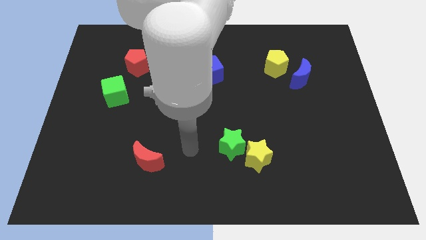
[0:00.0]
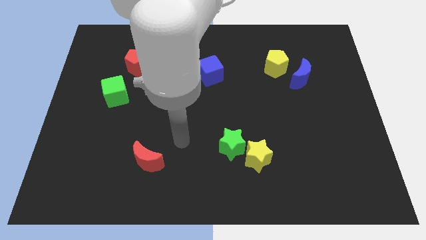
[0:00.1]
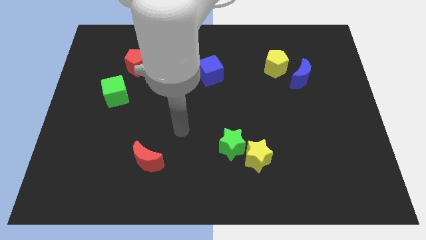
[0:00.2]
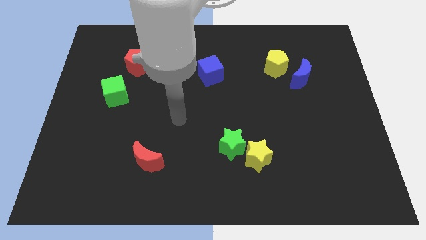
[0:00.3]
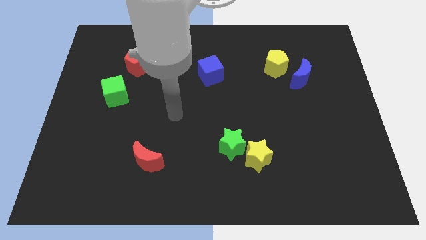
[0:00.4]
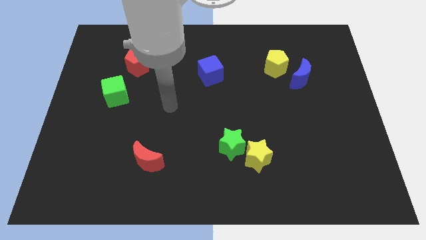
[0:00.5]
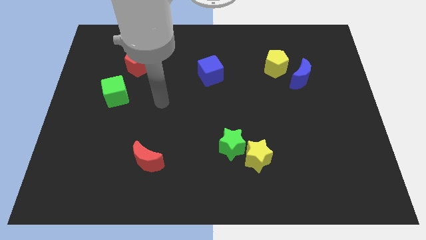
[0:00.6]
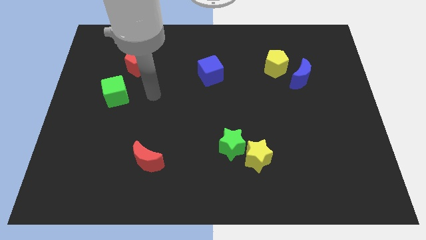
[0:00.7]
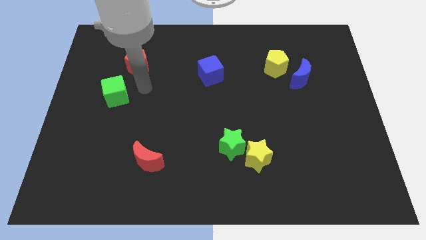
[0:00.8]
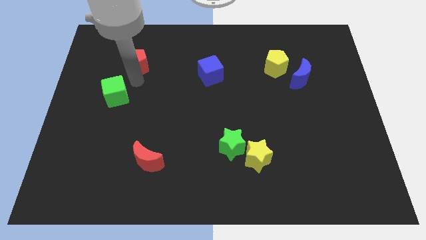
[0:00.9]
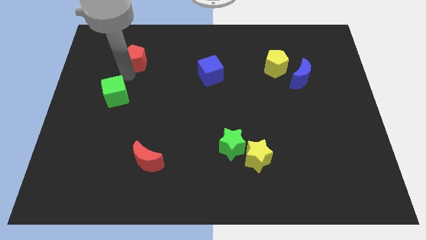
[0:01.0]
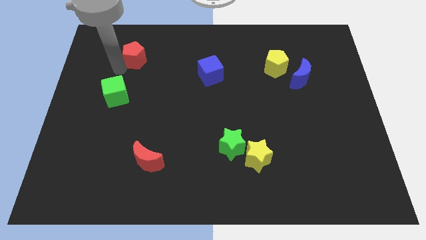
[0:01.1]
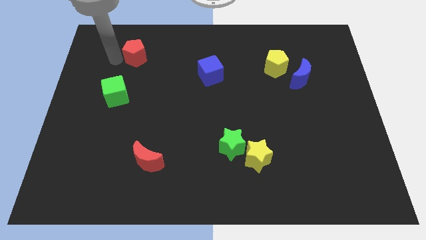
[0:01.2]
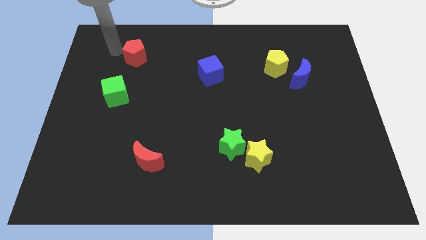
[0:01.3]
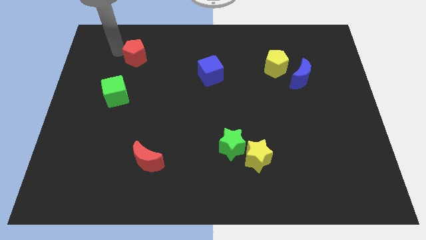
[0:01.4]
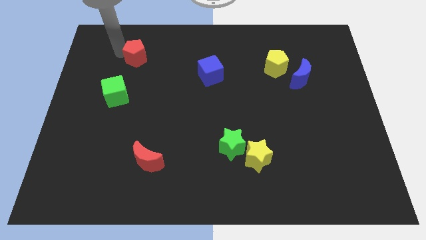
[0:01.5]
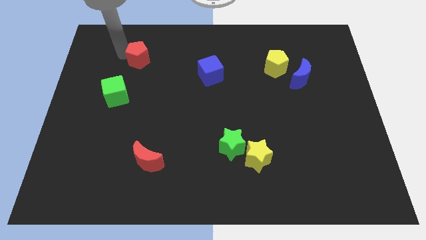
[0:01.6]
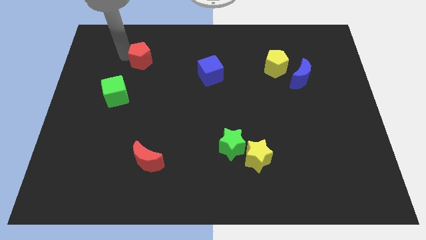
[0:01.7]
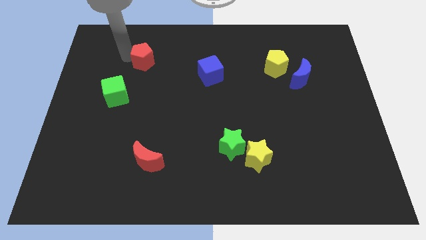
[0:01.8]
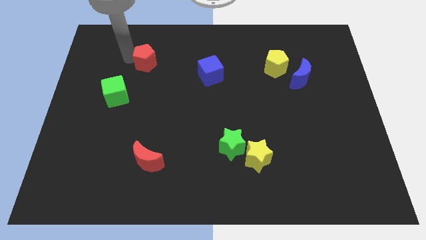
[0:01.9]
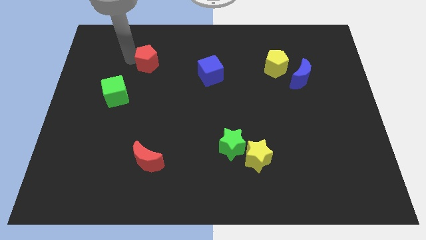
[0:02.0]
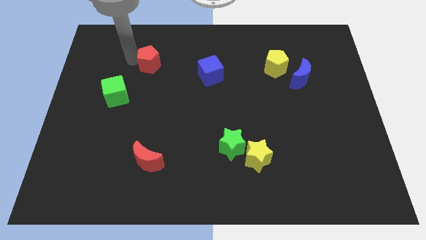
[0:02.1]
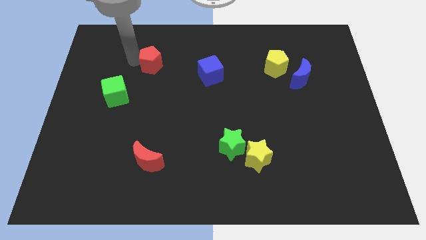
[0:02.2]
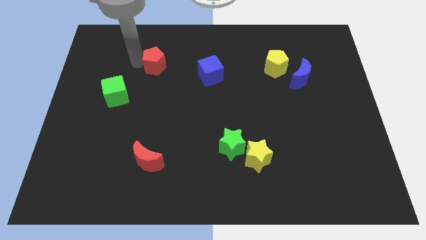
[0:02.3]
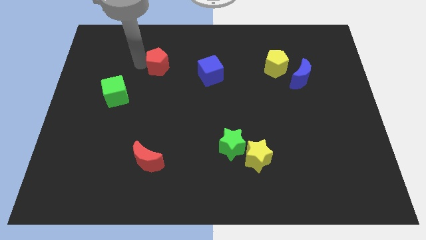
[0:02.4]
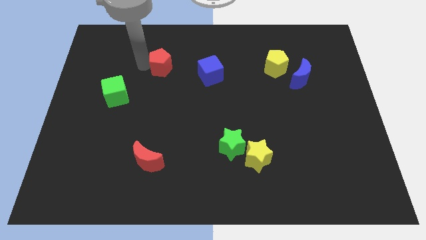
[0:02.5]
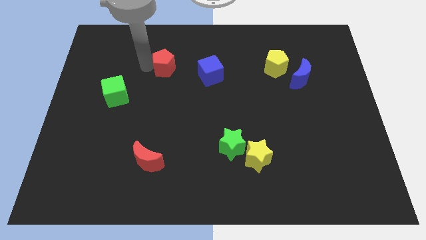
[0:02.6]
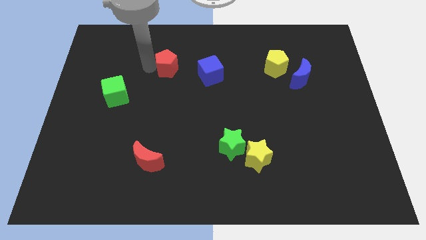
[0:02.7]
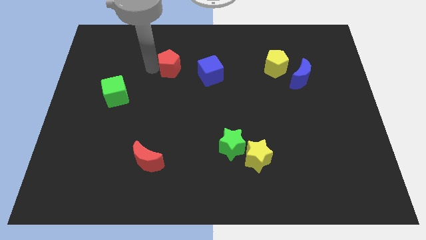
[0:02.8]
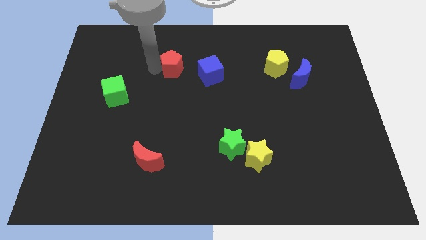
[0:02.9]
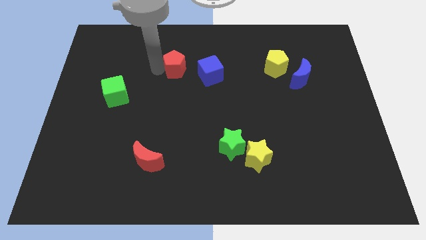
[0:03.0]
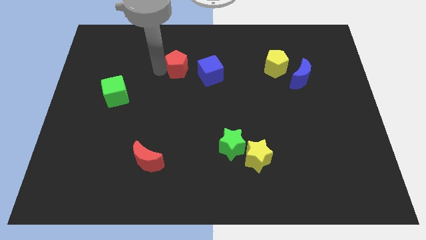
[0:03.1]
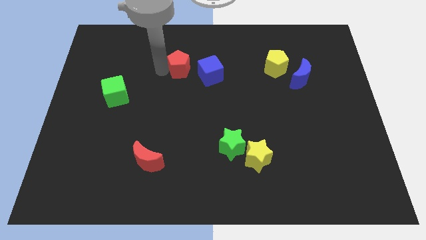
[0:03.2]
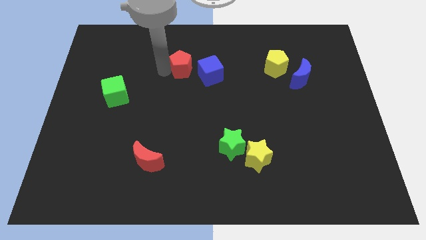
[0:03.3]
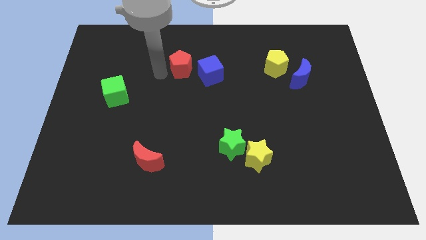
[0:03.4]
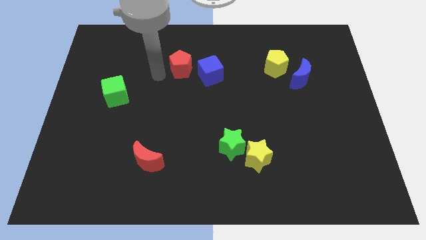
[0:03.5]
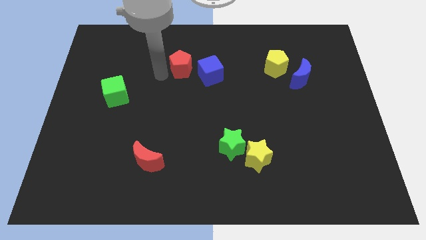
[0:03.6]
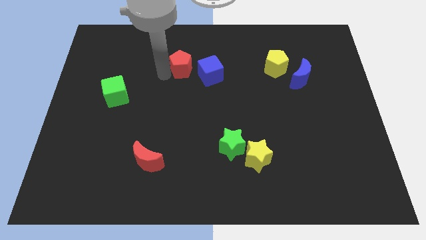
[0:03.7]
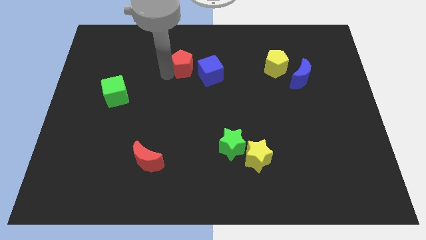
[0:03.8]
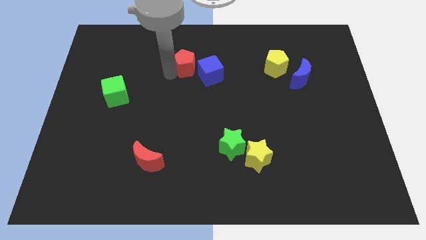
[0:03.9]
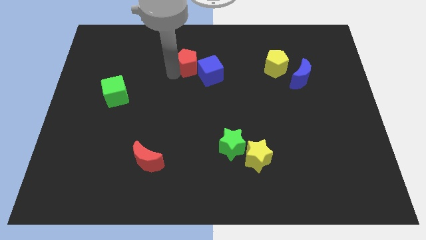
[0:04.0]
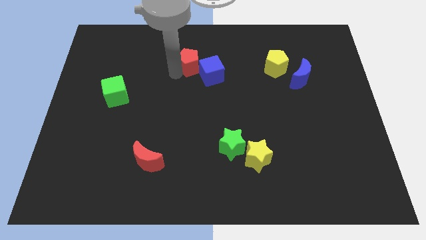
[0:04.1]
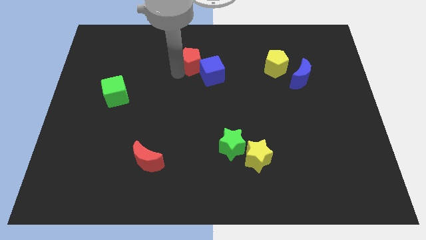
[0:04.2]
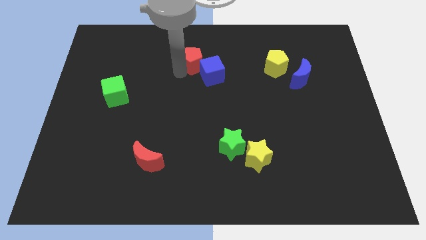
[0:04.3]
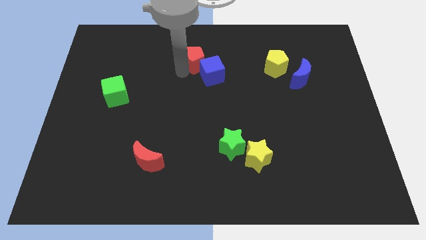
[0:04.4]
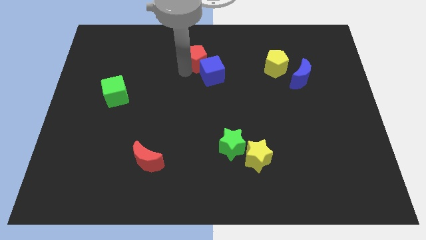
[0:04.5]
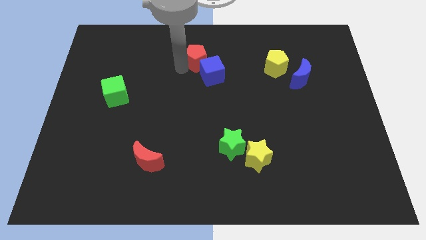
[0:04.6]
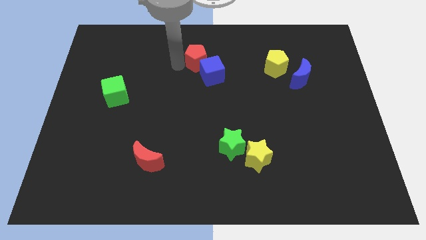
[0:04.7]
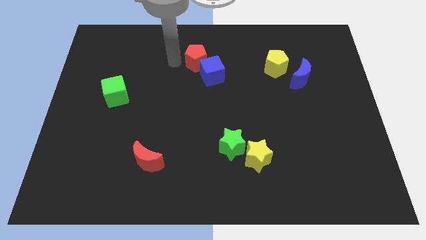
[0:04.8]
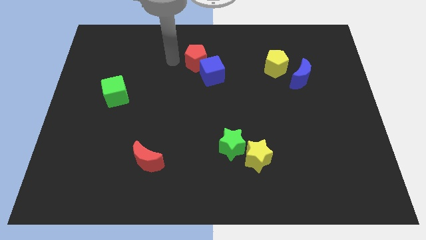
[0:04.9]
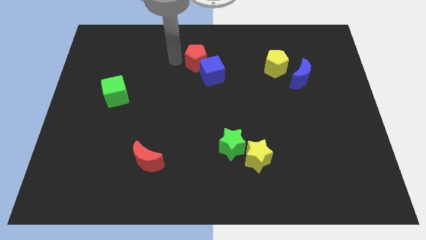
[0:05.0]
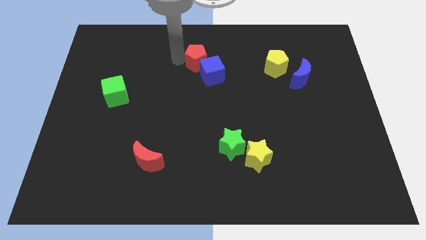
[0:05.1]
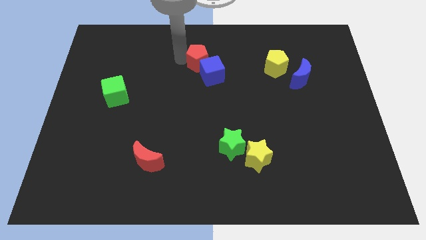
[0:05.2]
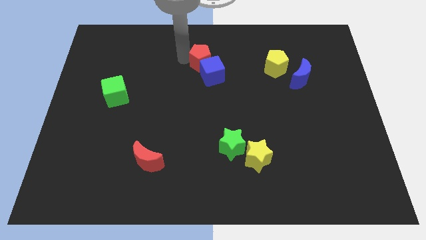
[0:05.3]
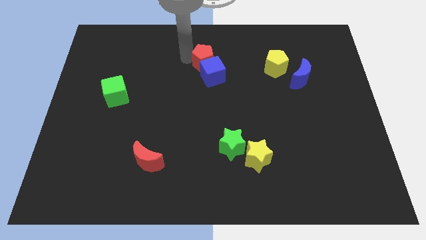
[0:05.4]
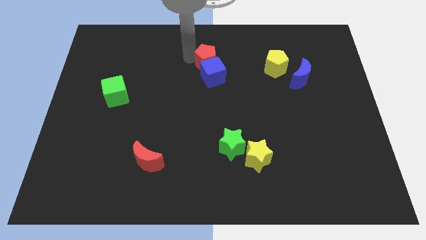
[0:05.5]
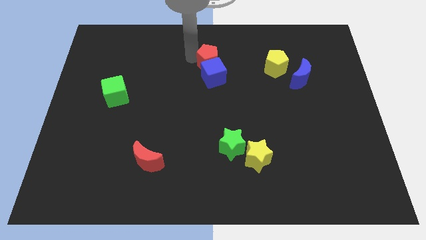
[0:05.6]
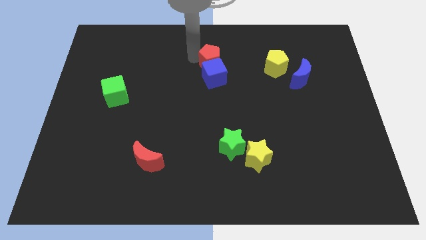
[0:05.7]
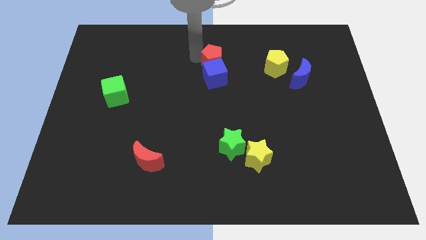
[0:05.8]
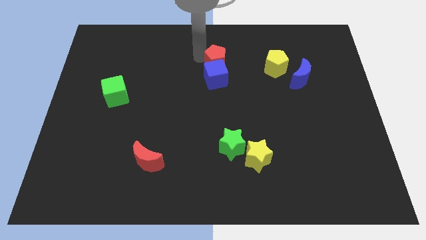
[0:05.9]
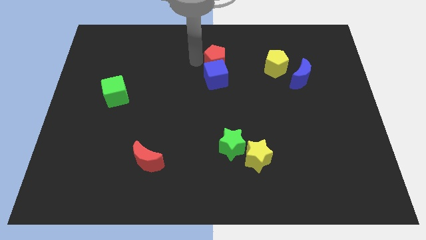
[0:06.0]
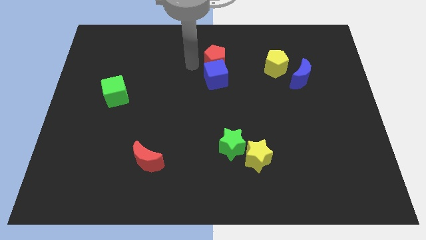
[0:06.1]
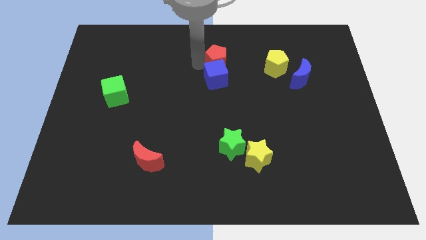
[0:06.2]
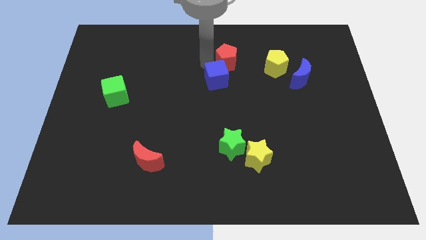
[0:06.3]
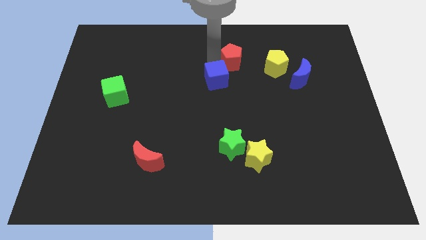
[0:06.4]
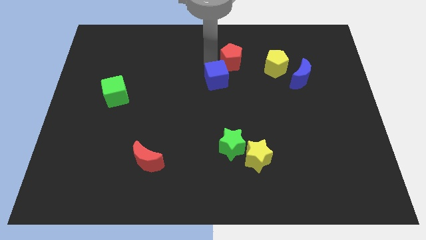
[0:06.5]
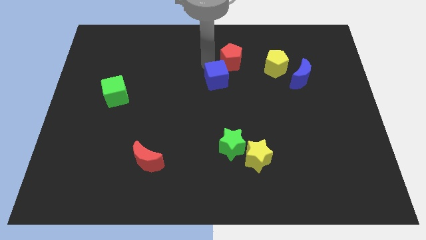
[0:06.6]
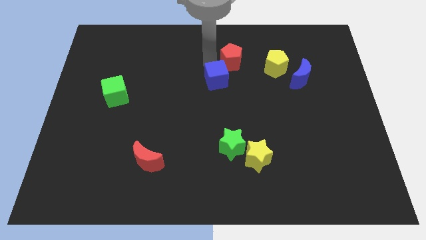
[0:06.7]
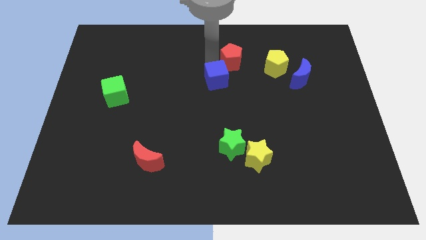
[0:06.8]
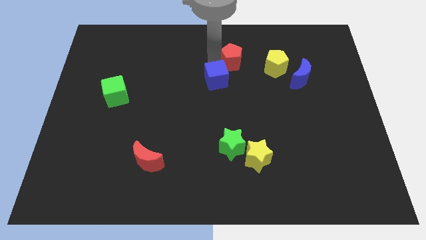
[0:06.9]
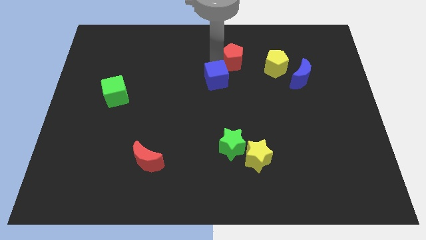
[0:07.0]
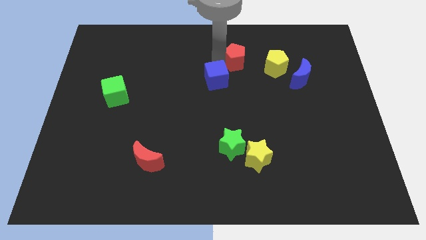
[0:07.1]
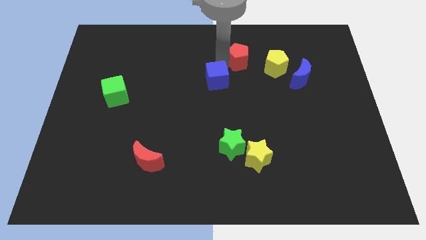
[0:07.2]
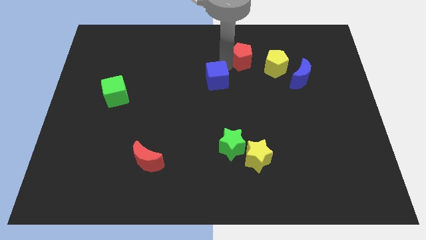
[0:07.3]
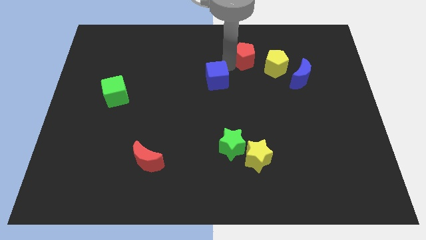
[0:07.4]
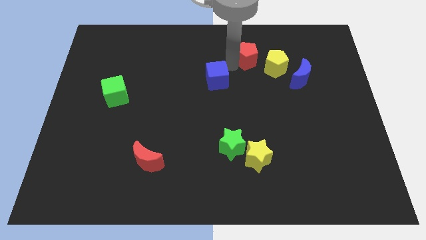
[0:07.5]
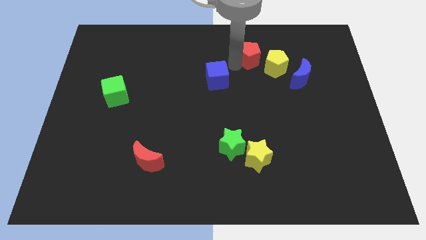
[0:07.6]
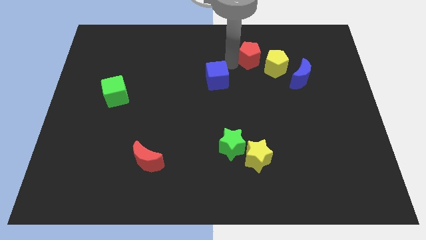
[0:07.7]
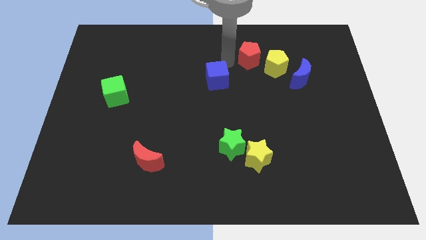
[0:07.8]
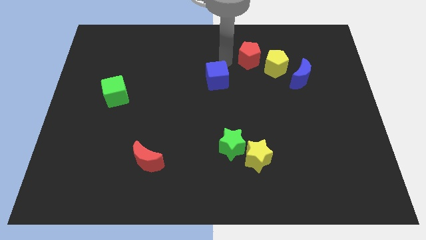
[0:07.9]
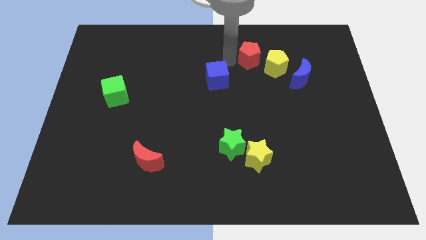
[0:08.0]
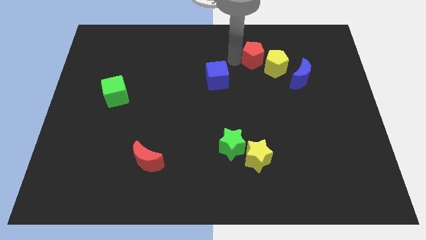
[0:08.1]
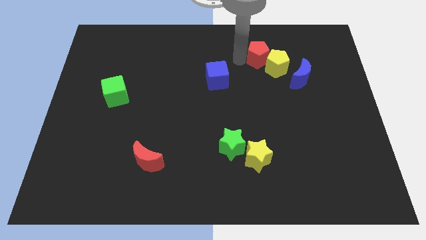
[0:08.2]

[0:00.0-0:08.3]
put the red pentagon diagonally up and to the left of the blue moon
